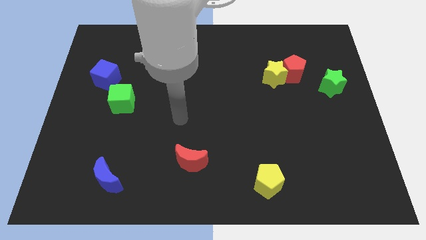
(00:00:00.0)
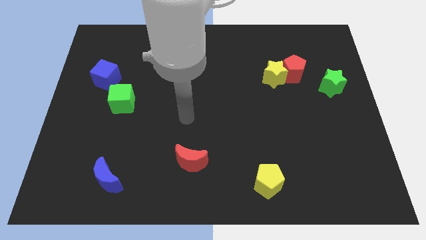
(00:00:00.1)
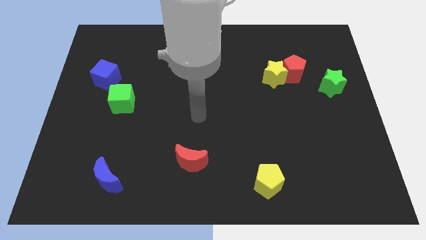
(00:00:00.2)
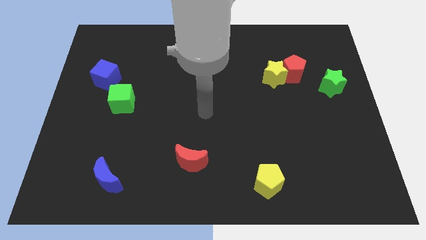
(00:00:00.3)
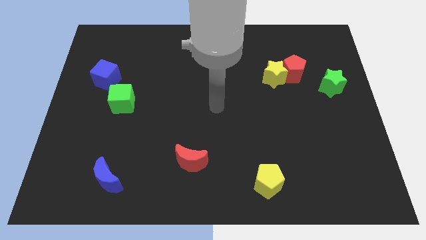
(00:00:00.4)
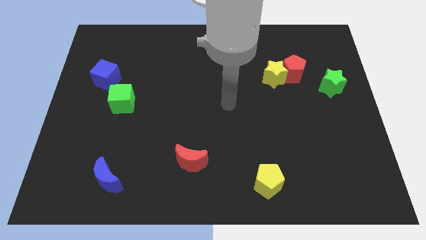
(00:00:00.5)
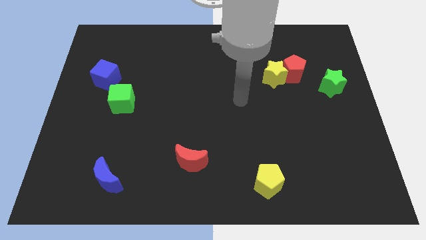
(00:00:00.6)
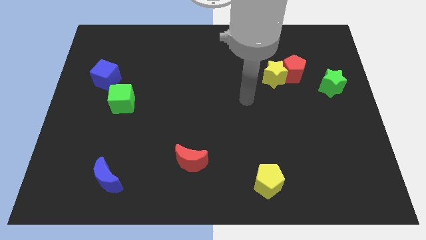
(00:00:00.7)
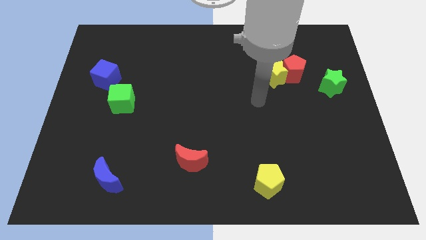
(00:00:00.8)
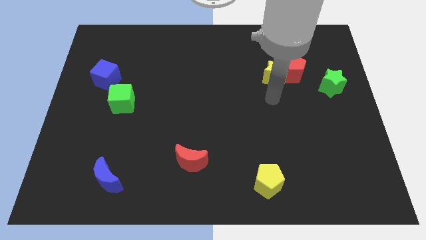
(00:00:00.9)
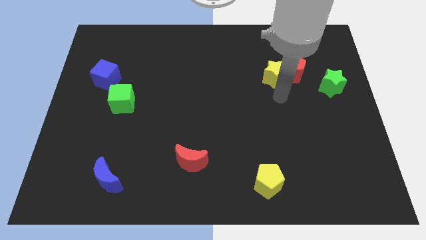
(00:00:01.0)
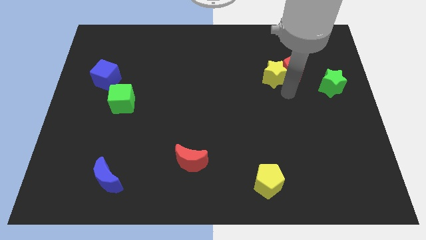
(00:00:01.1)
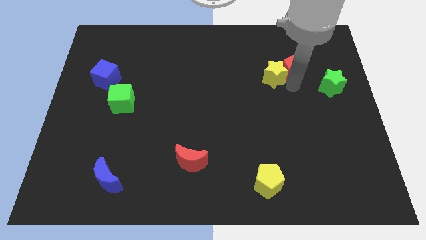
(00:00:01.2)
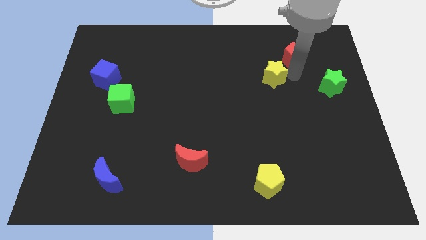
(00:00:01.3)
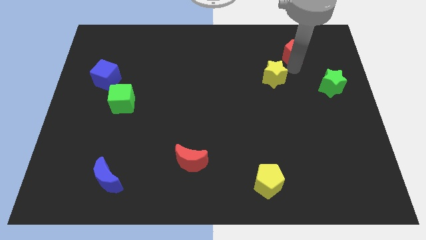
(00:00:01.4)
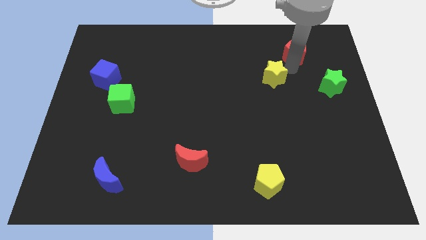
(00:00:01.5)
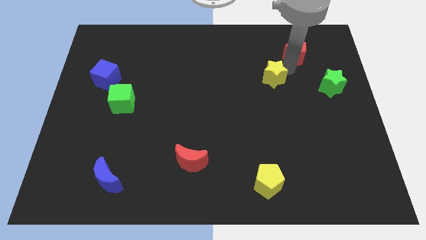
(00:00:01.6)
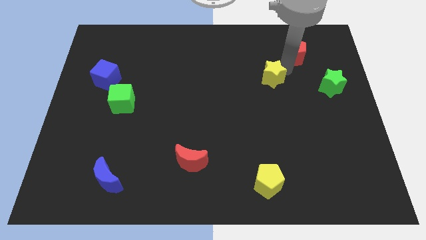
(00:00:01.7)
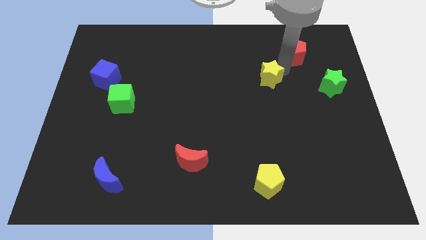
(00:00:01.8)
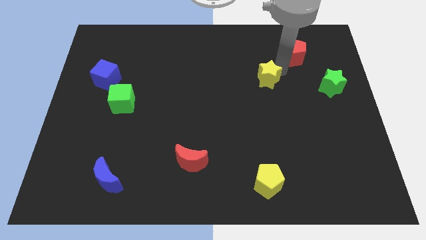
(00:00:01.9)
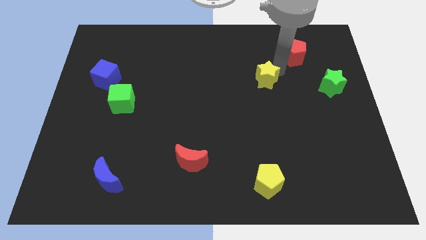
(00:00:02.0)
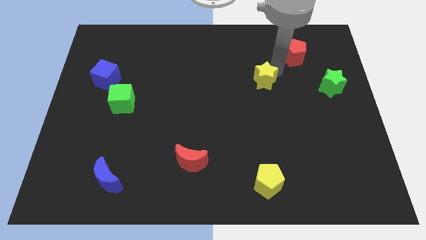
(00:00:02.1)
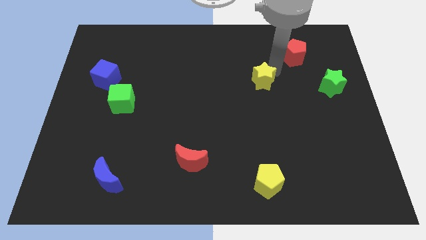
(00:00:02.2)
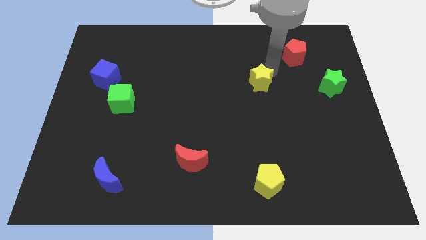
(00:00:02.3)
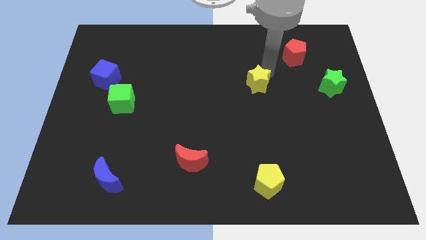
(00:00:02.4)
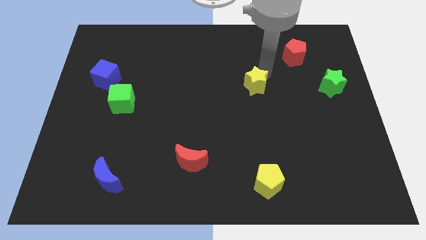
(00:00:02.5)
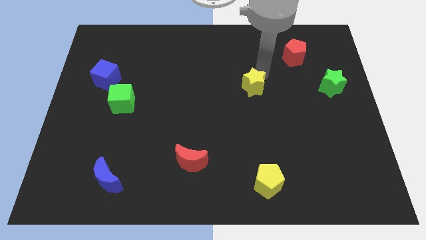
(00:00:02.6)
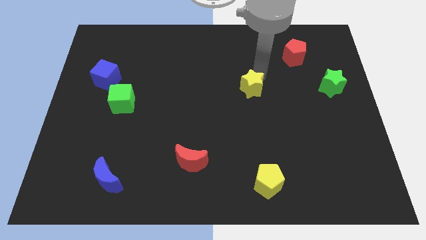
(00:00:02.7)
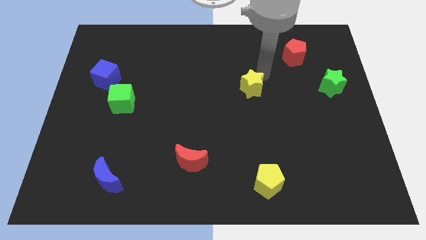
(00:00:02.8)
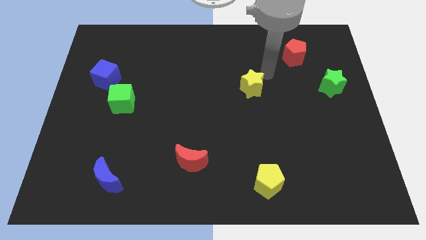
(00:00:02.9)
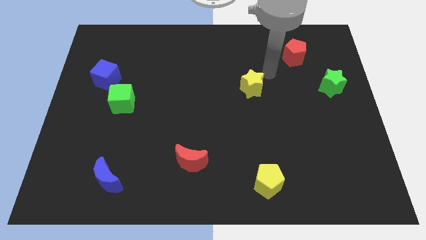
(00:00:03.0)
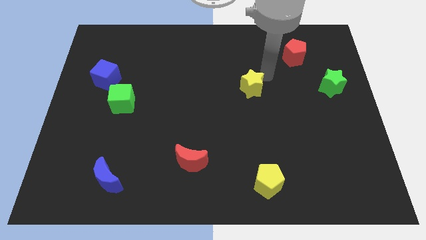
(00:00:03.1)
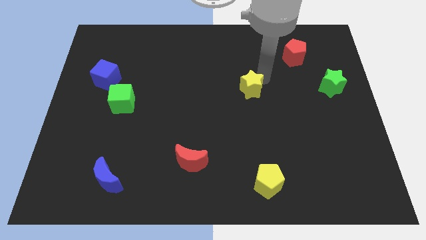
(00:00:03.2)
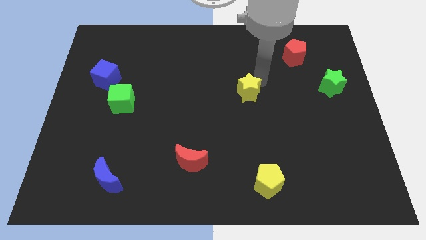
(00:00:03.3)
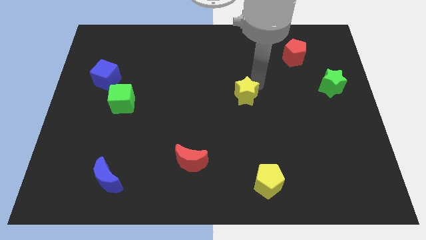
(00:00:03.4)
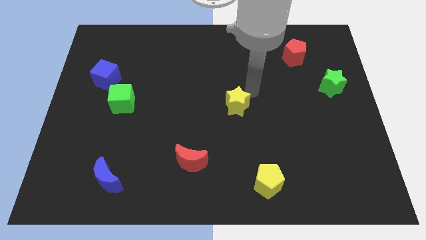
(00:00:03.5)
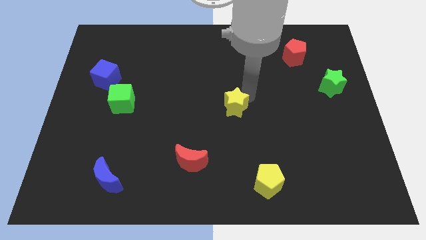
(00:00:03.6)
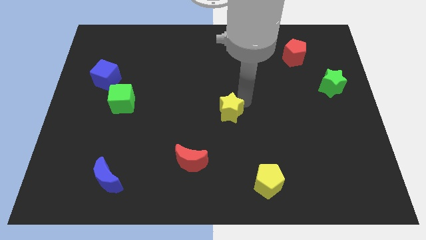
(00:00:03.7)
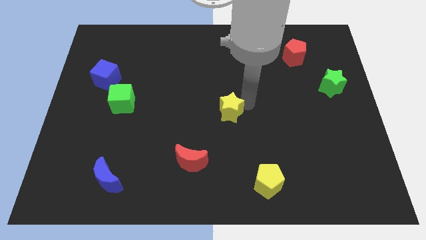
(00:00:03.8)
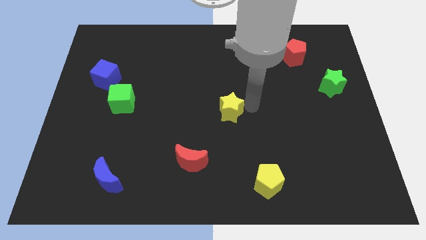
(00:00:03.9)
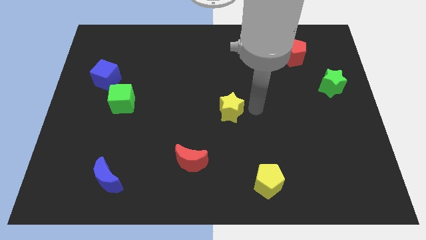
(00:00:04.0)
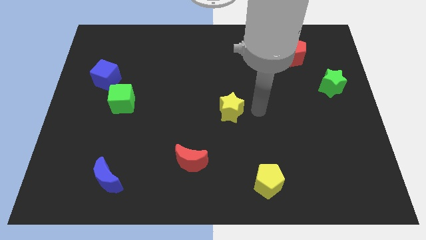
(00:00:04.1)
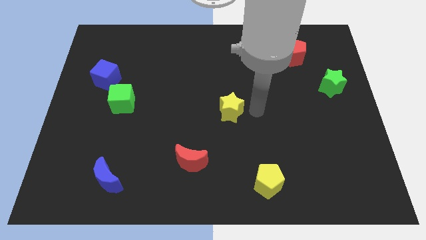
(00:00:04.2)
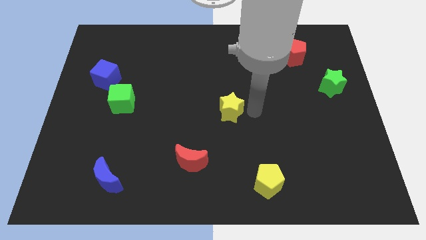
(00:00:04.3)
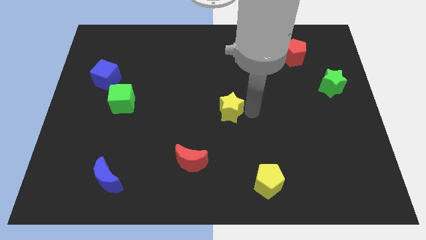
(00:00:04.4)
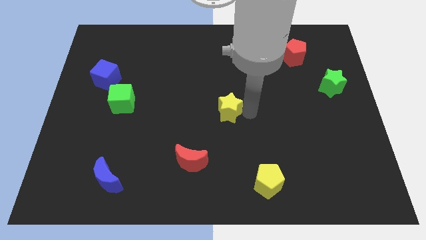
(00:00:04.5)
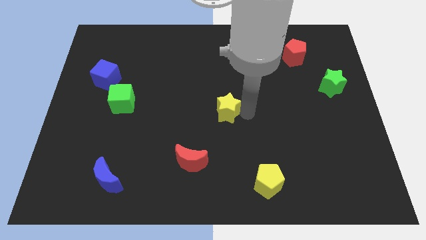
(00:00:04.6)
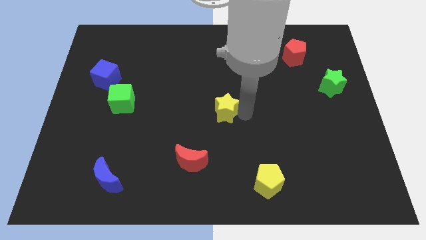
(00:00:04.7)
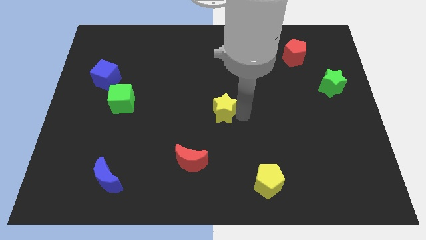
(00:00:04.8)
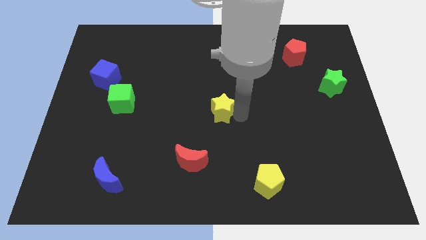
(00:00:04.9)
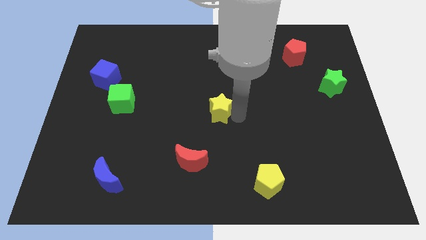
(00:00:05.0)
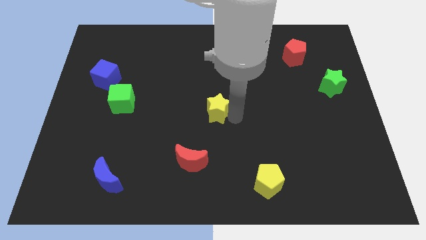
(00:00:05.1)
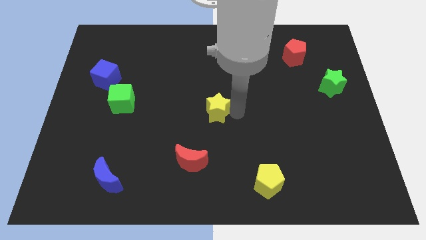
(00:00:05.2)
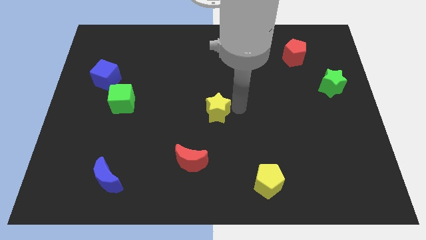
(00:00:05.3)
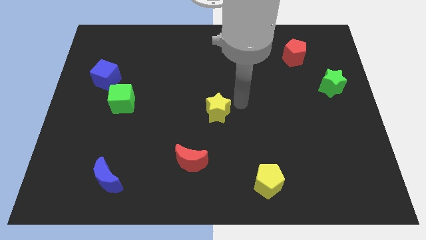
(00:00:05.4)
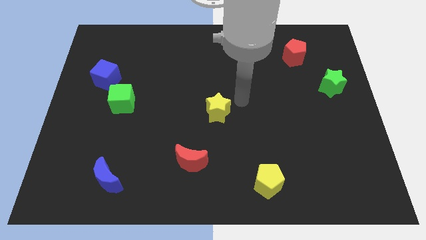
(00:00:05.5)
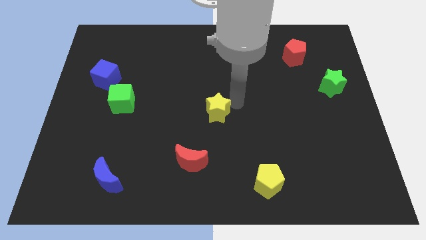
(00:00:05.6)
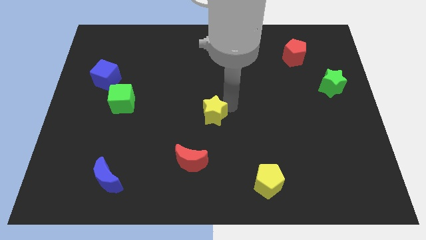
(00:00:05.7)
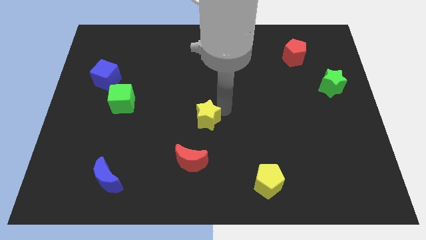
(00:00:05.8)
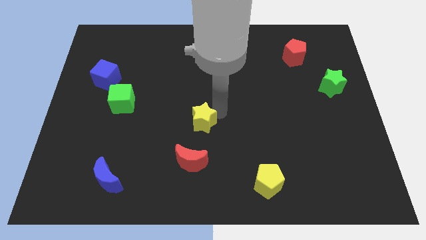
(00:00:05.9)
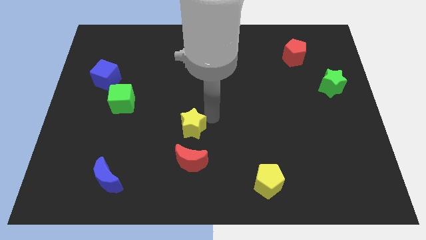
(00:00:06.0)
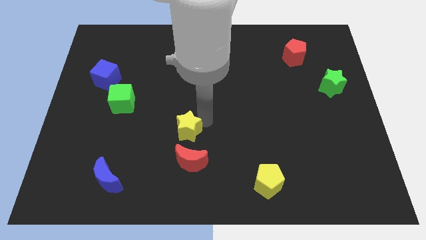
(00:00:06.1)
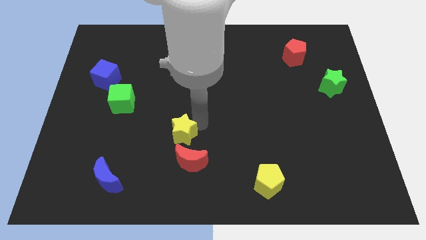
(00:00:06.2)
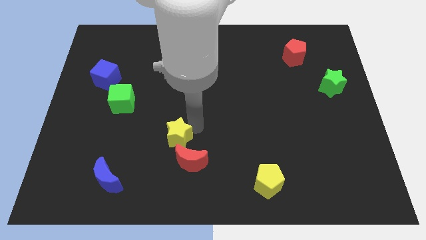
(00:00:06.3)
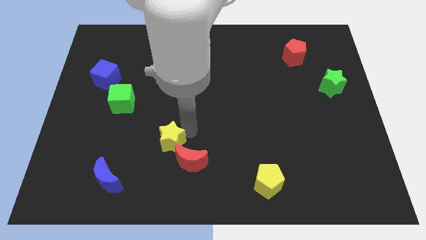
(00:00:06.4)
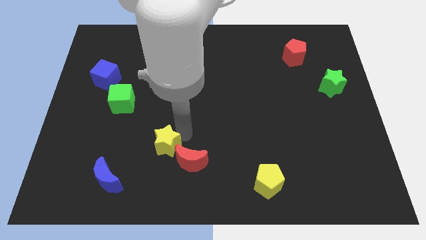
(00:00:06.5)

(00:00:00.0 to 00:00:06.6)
put the yellow star just left of the red moon
